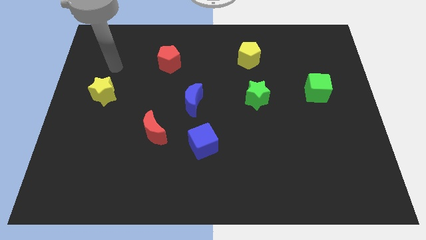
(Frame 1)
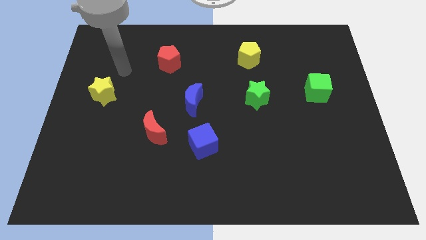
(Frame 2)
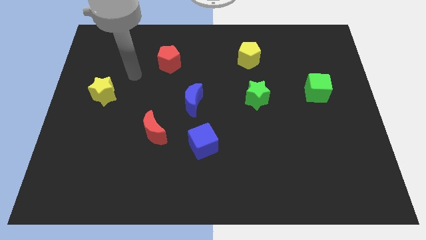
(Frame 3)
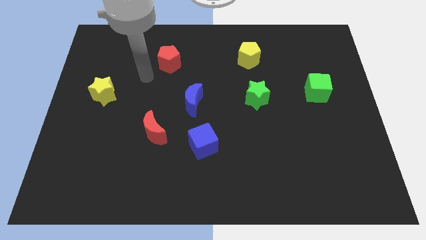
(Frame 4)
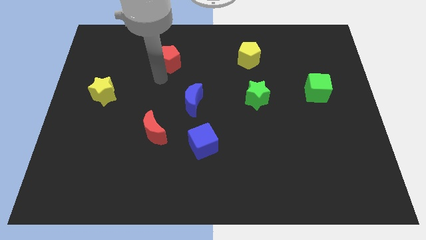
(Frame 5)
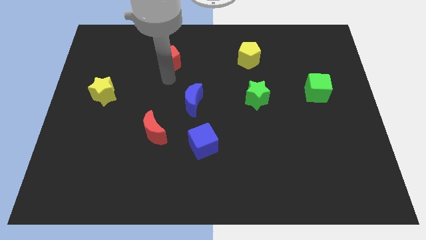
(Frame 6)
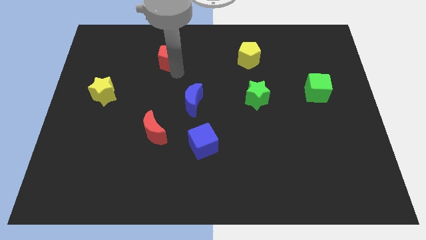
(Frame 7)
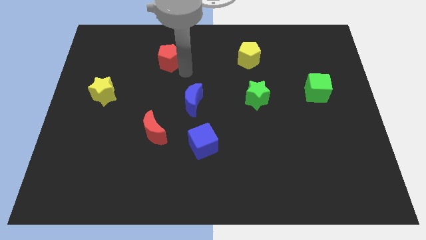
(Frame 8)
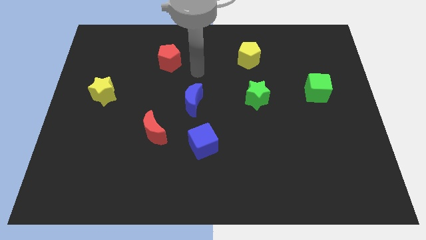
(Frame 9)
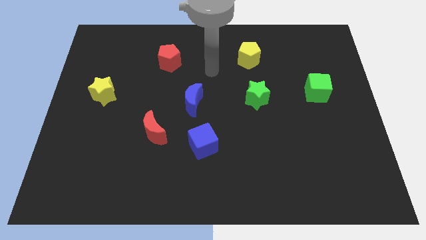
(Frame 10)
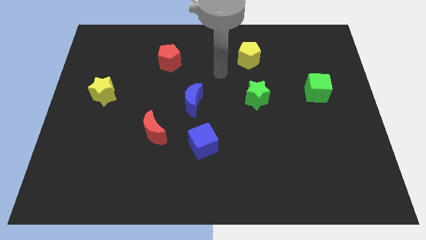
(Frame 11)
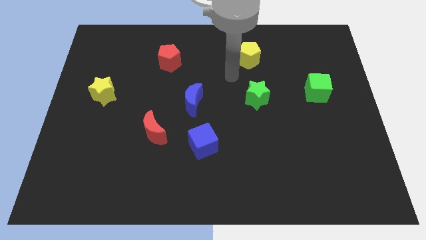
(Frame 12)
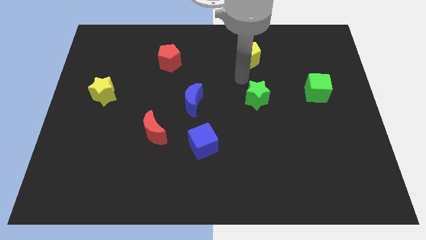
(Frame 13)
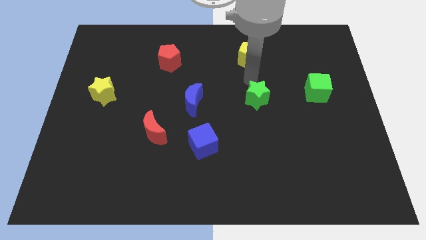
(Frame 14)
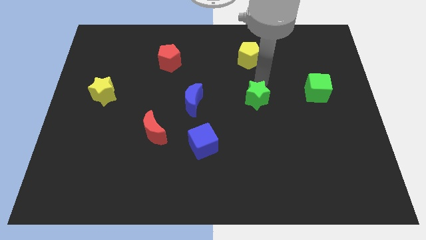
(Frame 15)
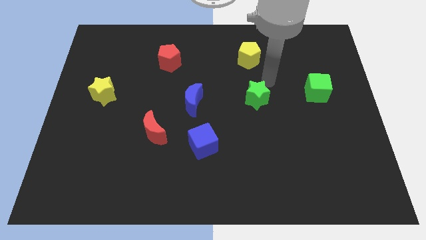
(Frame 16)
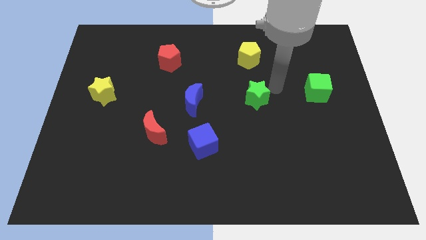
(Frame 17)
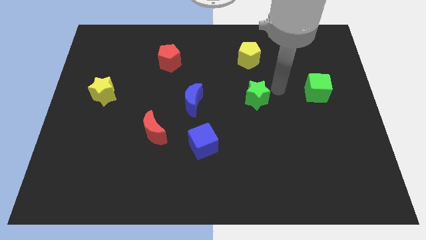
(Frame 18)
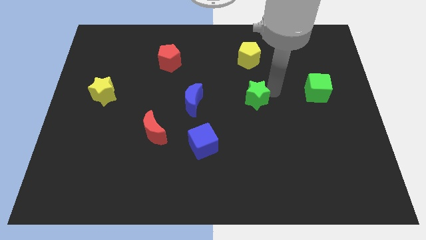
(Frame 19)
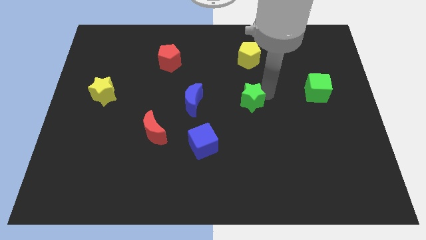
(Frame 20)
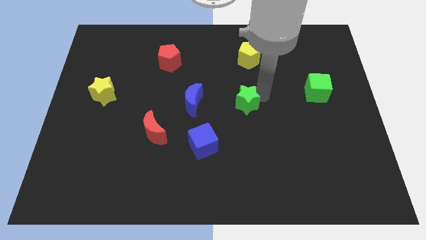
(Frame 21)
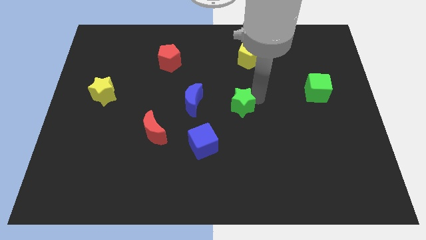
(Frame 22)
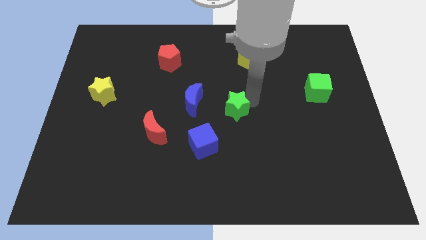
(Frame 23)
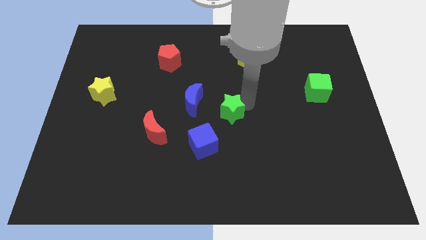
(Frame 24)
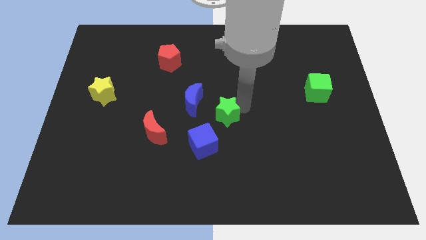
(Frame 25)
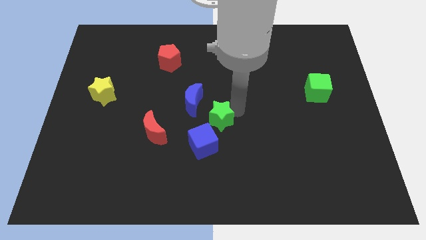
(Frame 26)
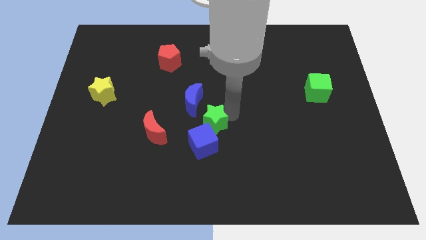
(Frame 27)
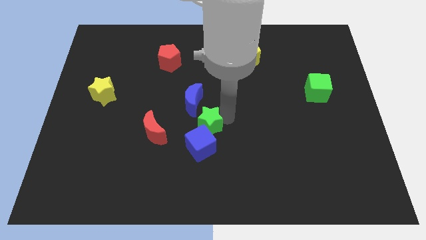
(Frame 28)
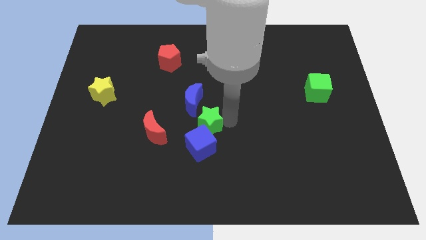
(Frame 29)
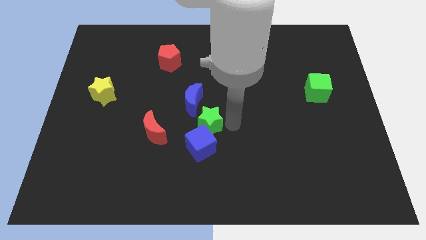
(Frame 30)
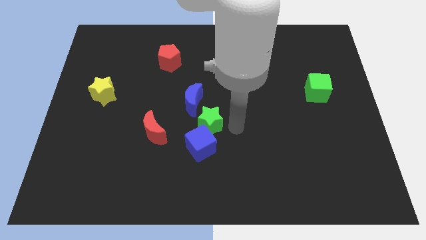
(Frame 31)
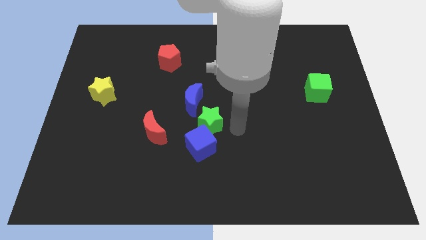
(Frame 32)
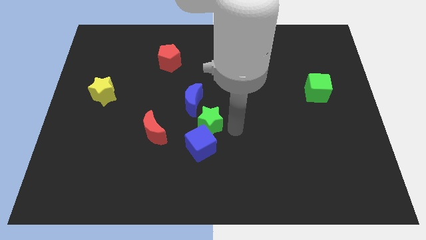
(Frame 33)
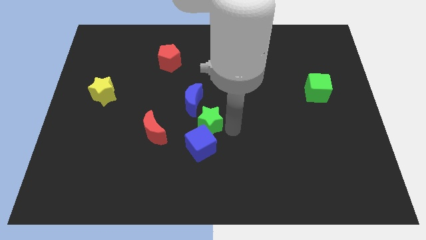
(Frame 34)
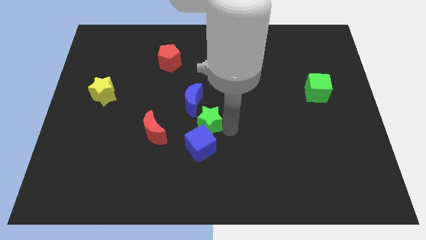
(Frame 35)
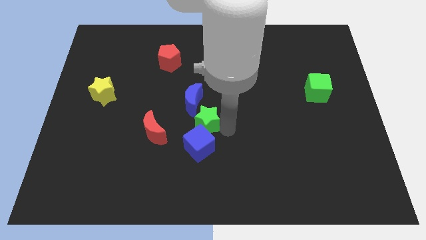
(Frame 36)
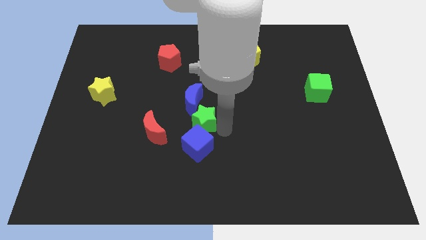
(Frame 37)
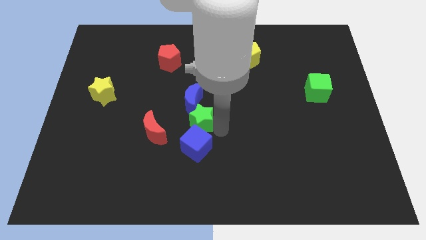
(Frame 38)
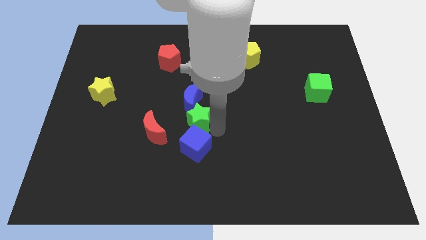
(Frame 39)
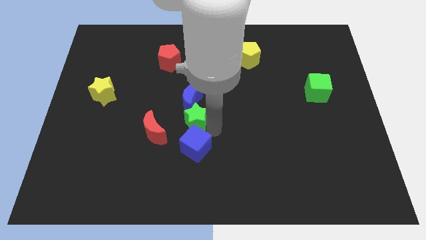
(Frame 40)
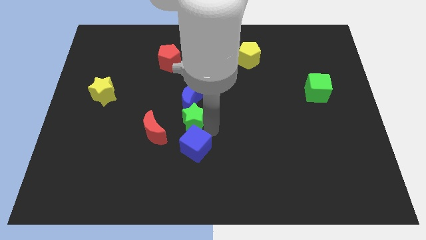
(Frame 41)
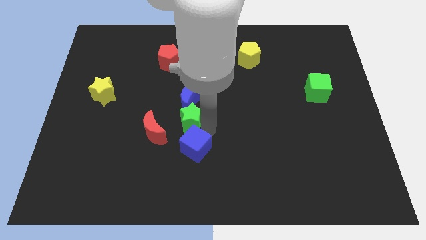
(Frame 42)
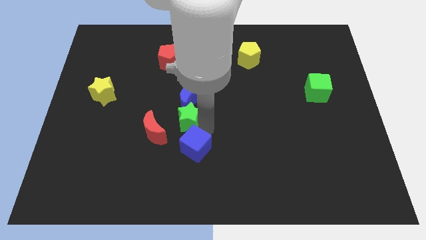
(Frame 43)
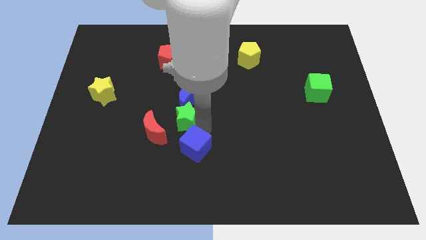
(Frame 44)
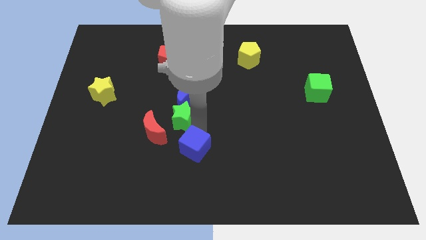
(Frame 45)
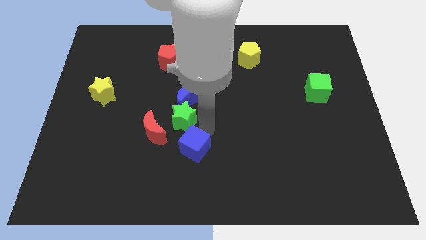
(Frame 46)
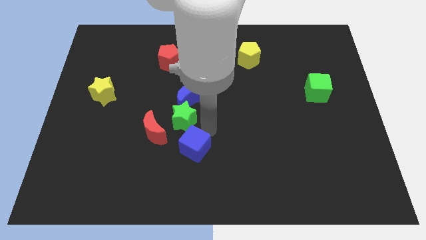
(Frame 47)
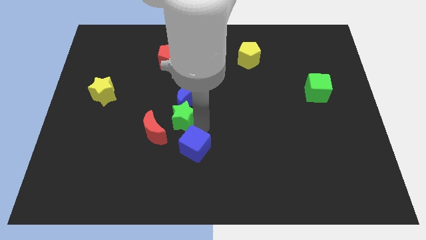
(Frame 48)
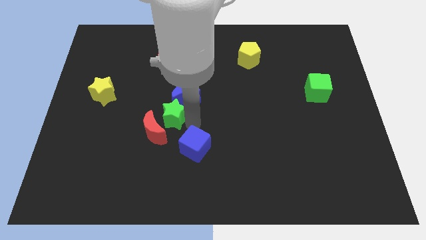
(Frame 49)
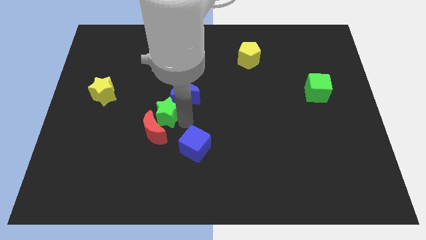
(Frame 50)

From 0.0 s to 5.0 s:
move the green star to the left

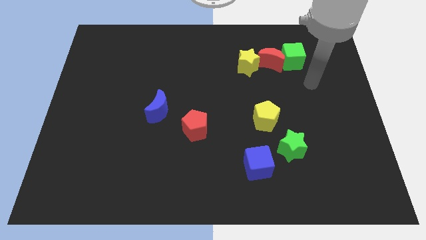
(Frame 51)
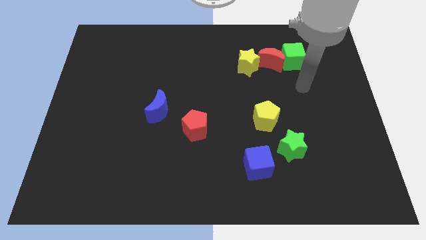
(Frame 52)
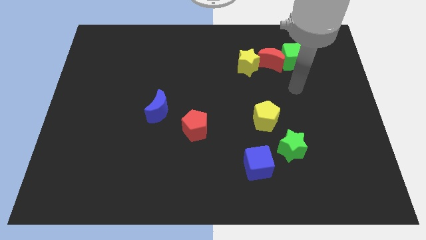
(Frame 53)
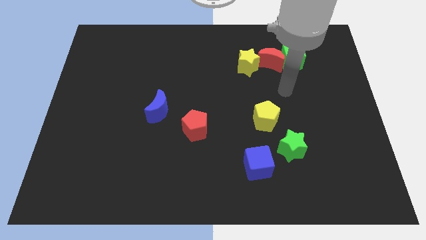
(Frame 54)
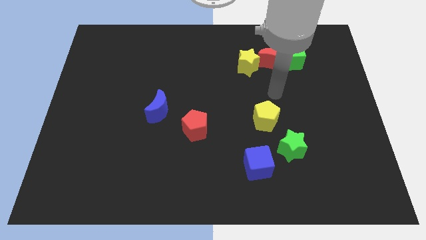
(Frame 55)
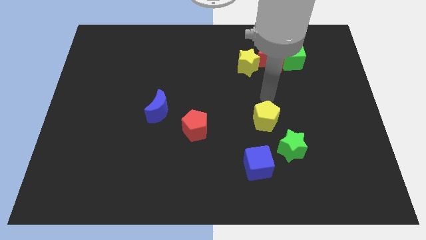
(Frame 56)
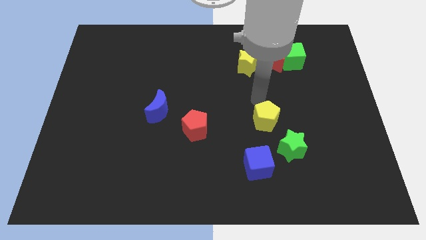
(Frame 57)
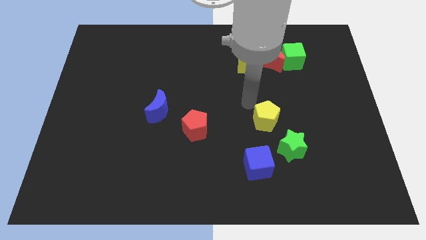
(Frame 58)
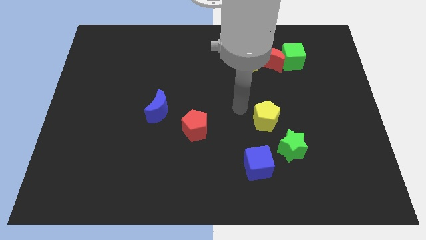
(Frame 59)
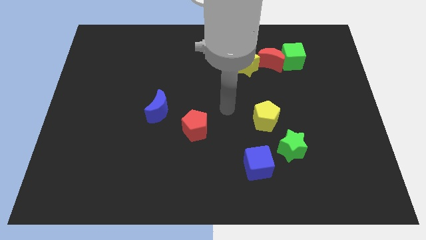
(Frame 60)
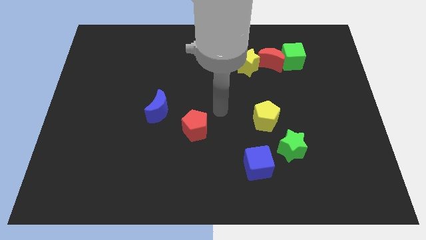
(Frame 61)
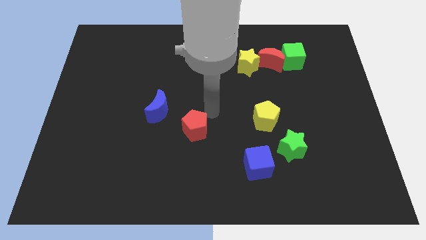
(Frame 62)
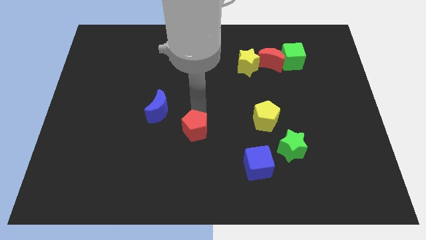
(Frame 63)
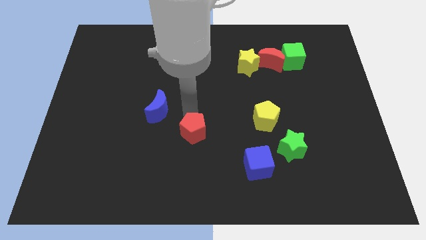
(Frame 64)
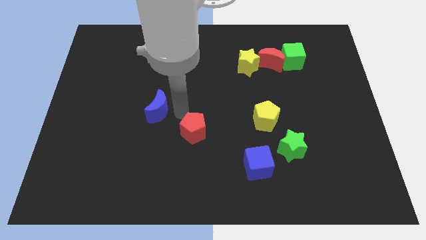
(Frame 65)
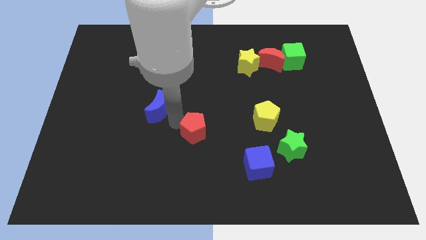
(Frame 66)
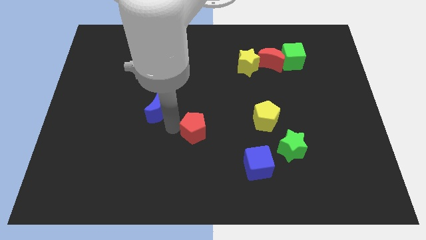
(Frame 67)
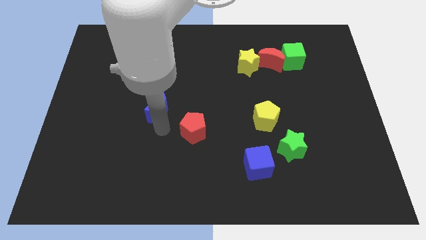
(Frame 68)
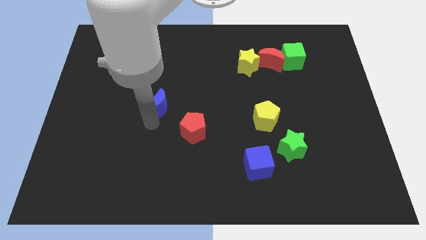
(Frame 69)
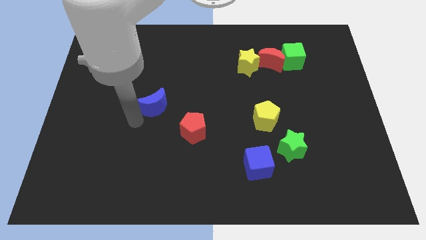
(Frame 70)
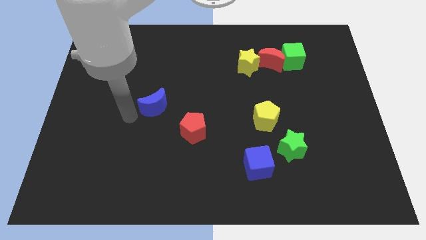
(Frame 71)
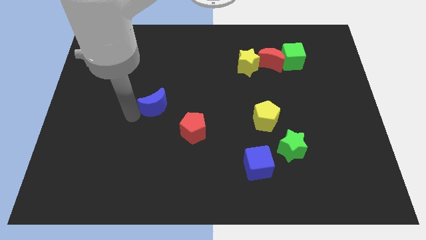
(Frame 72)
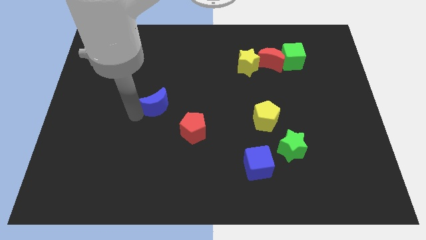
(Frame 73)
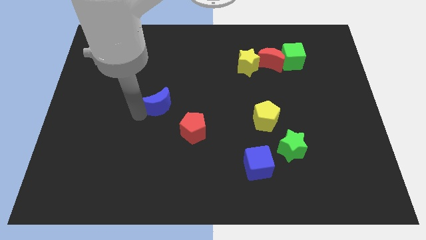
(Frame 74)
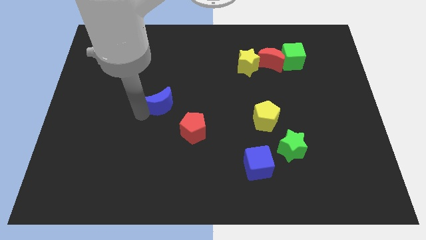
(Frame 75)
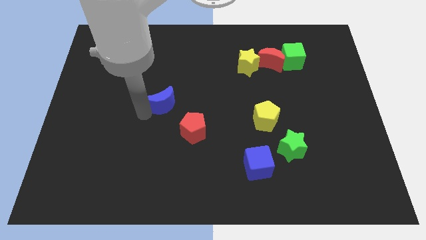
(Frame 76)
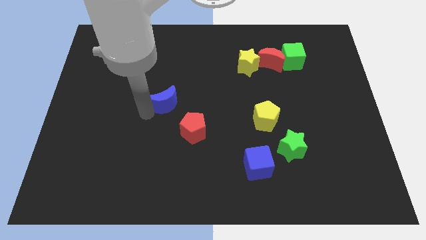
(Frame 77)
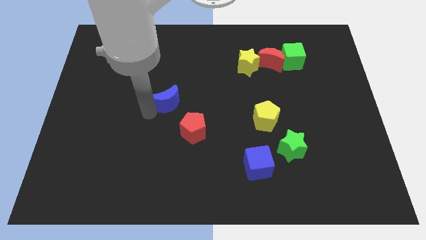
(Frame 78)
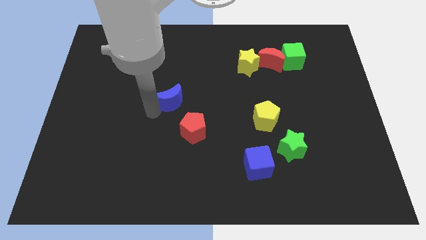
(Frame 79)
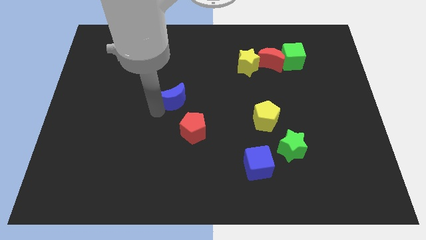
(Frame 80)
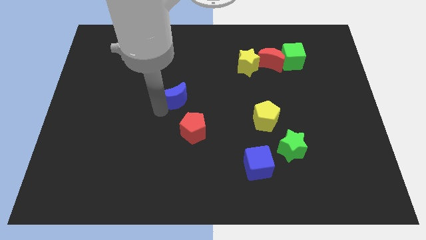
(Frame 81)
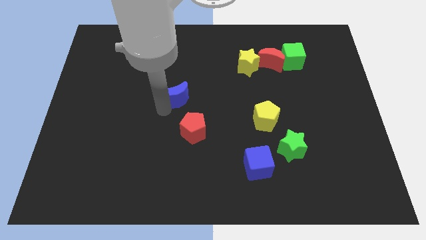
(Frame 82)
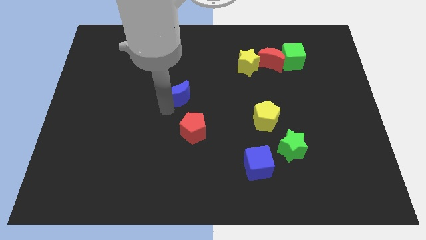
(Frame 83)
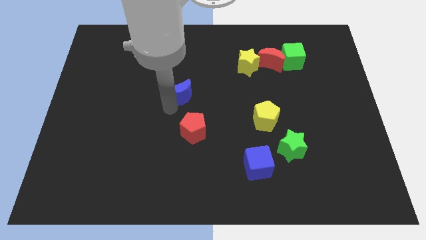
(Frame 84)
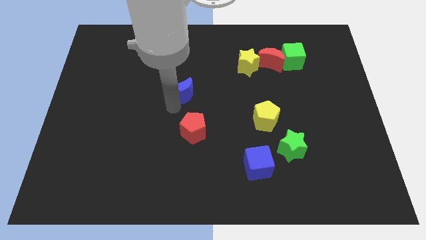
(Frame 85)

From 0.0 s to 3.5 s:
slide the blue moon a little bit up and then right
